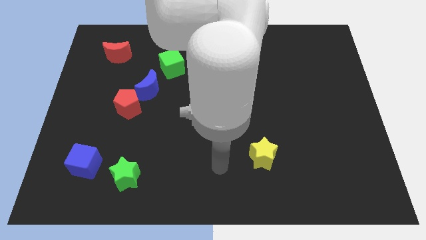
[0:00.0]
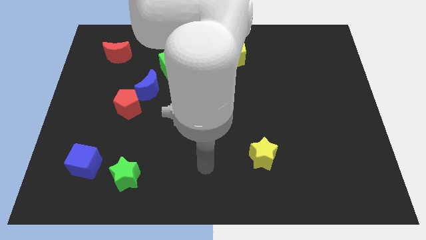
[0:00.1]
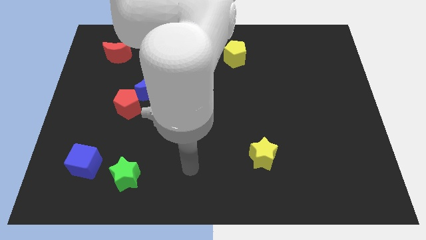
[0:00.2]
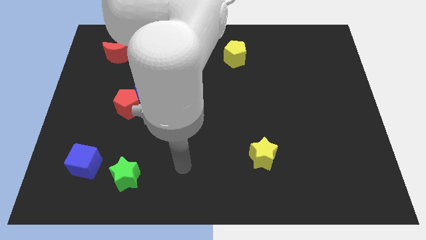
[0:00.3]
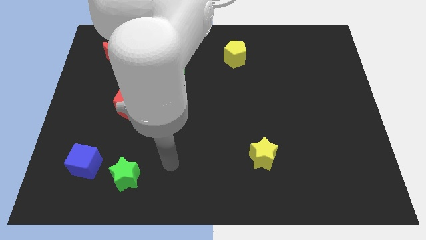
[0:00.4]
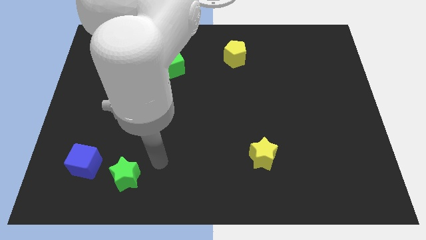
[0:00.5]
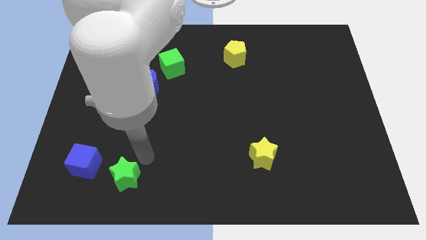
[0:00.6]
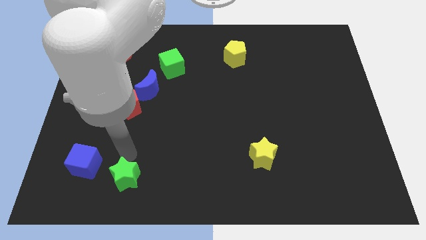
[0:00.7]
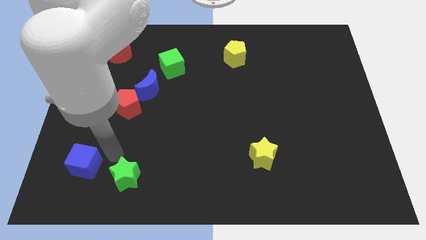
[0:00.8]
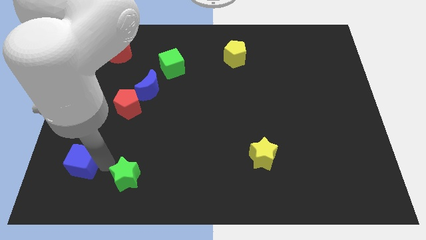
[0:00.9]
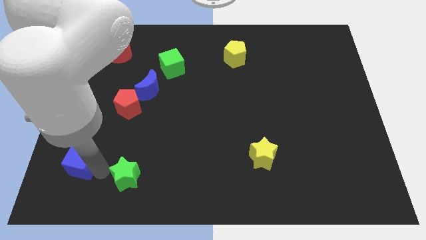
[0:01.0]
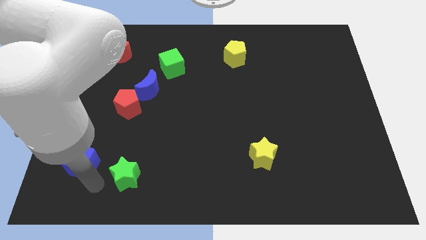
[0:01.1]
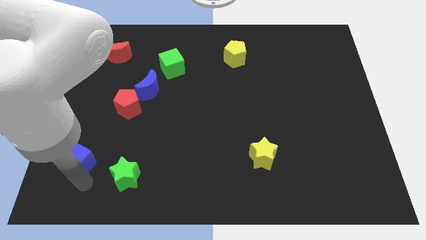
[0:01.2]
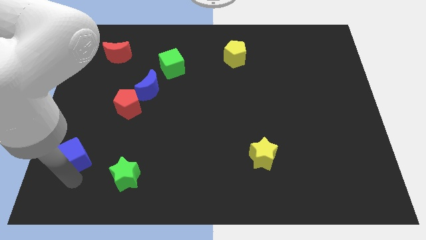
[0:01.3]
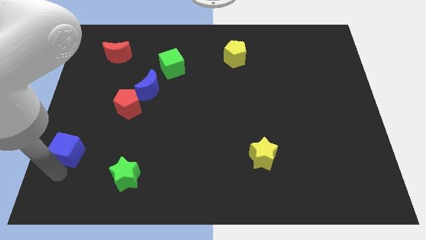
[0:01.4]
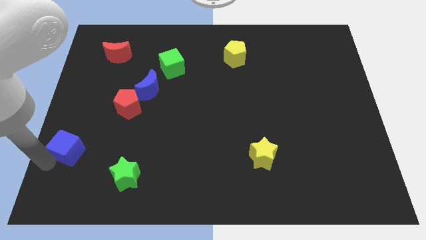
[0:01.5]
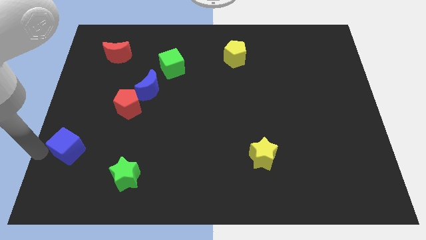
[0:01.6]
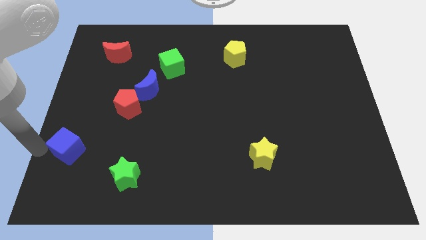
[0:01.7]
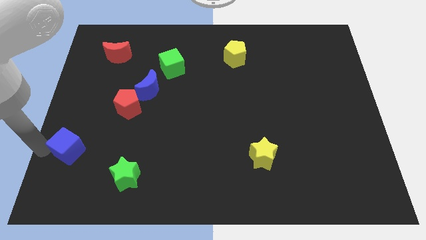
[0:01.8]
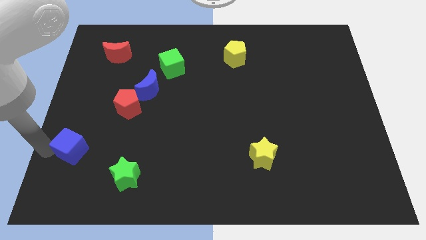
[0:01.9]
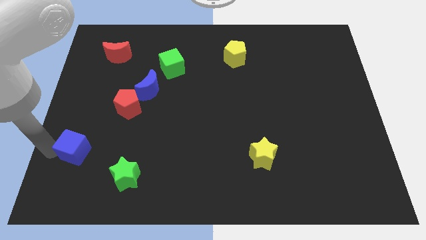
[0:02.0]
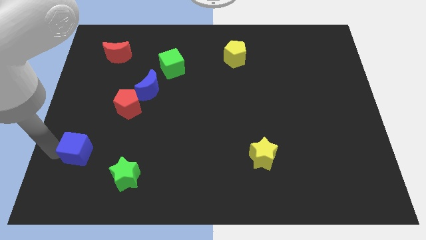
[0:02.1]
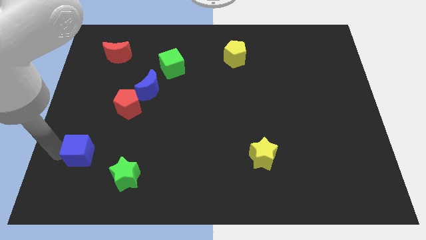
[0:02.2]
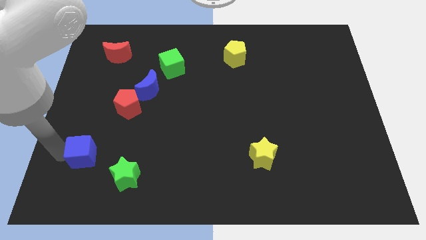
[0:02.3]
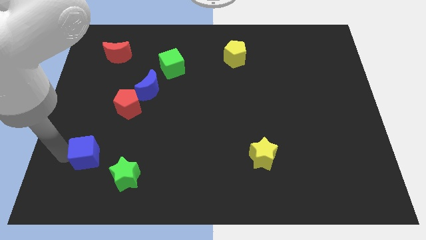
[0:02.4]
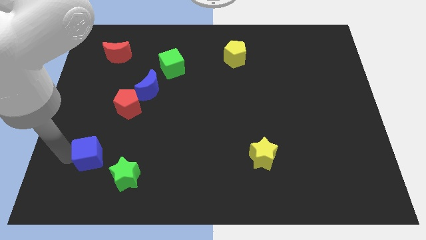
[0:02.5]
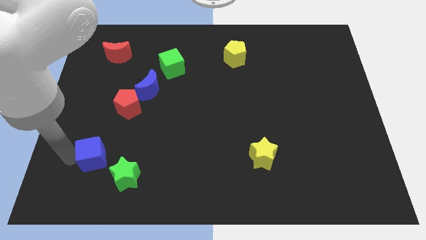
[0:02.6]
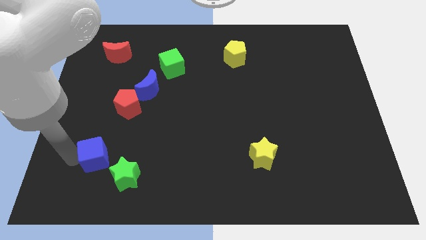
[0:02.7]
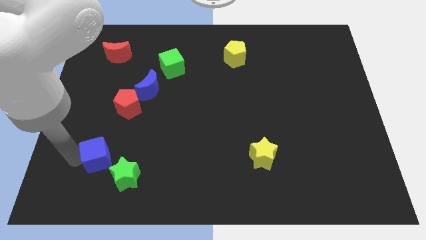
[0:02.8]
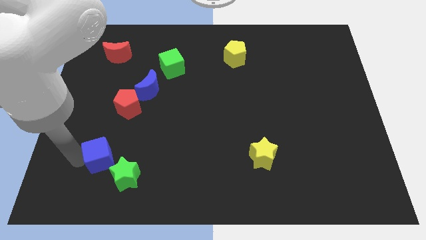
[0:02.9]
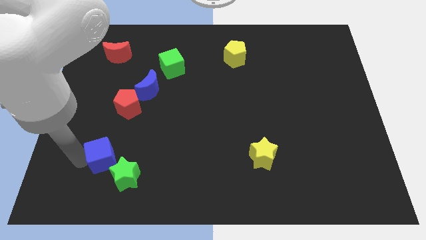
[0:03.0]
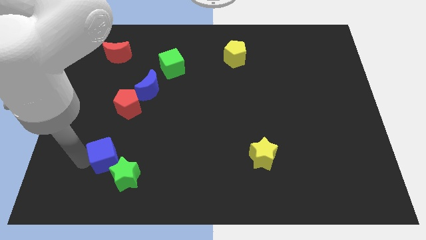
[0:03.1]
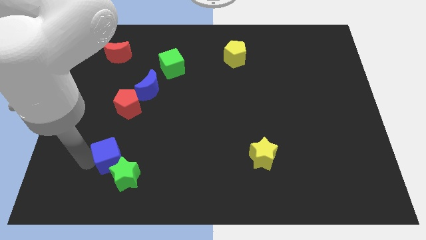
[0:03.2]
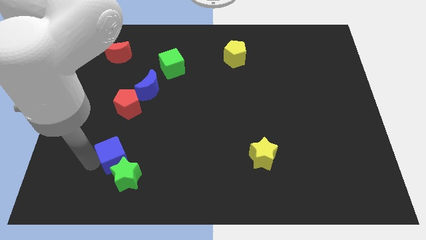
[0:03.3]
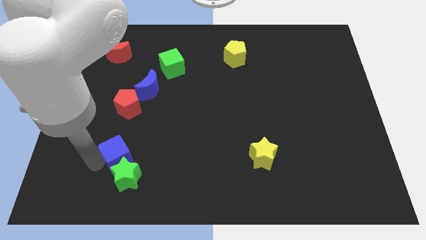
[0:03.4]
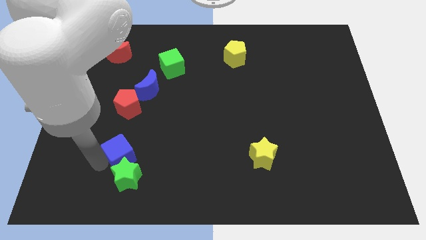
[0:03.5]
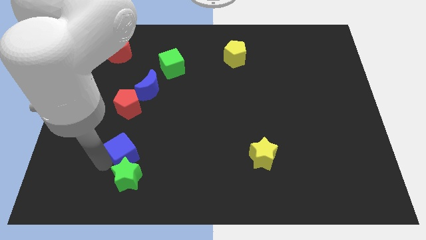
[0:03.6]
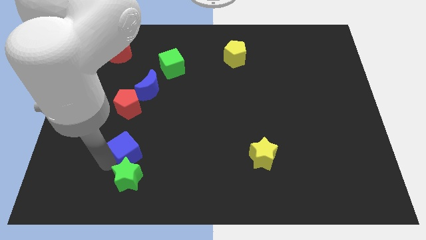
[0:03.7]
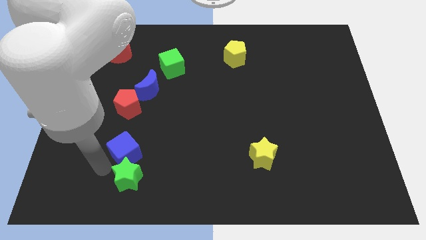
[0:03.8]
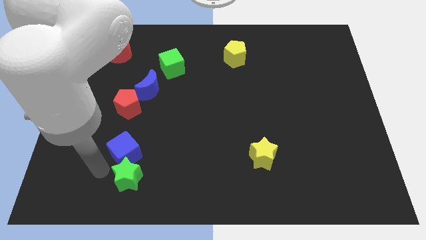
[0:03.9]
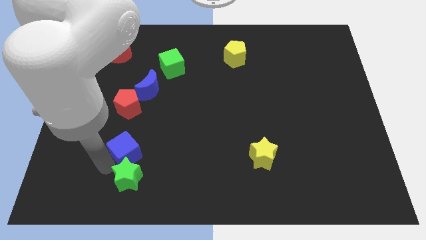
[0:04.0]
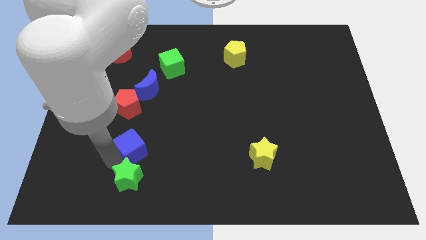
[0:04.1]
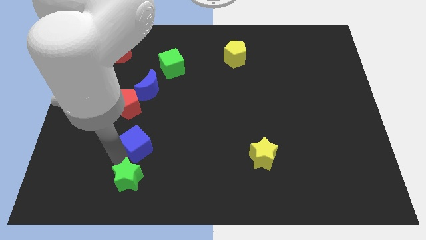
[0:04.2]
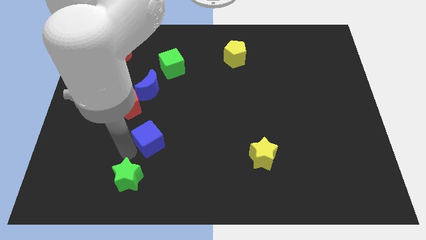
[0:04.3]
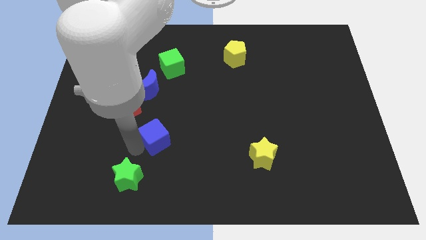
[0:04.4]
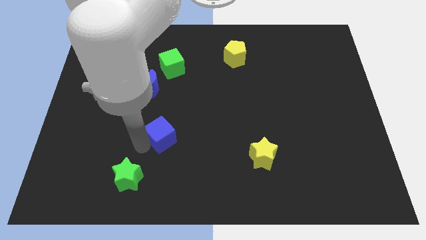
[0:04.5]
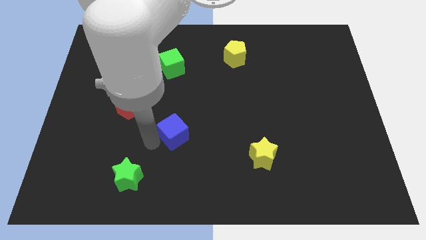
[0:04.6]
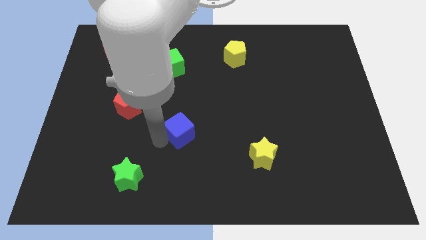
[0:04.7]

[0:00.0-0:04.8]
push the blue cube to the middle of the board

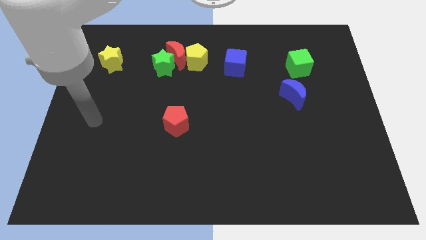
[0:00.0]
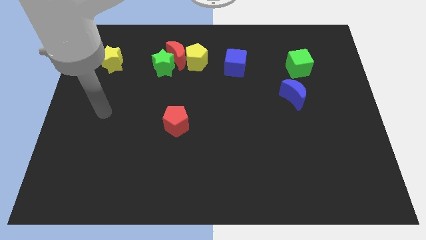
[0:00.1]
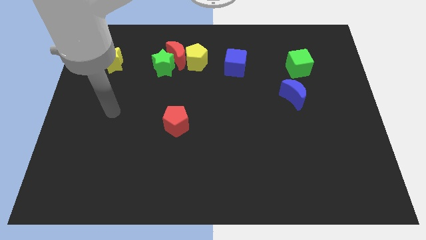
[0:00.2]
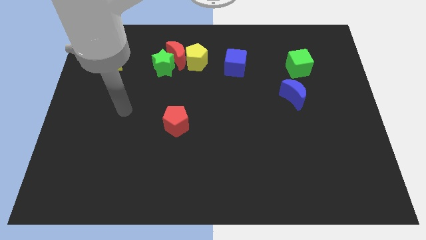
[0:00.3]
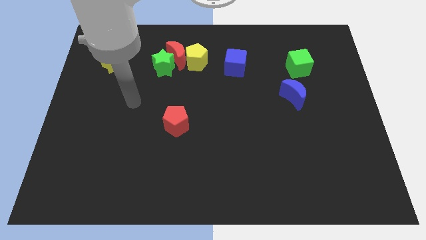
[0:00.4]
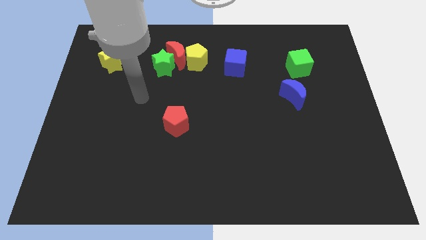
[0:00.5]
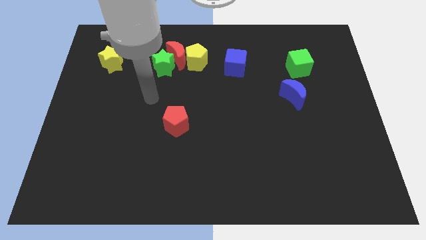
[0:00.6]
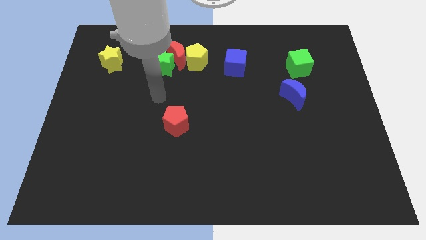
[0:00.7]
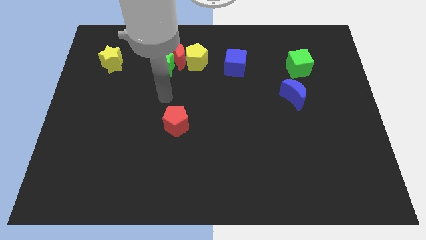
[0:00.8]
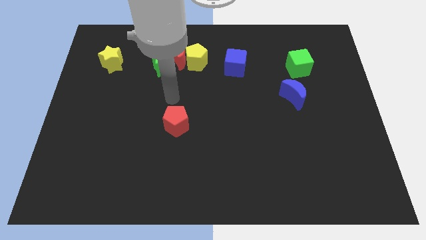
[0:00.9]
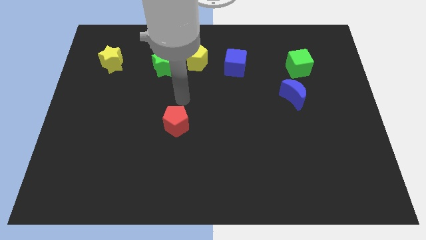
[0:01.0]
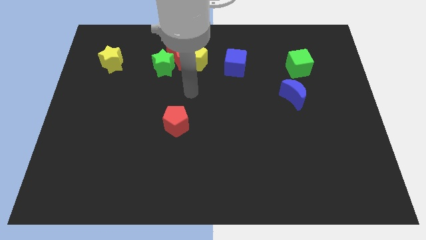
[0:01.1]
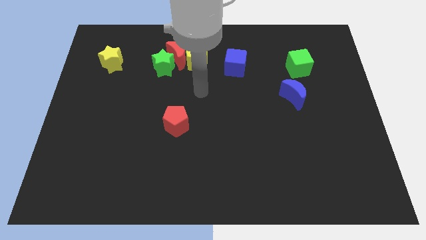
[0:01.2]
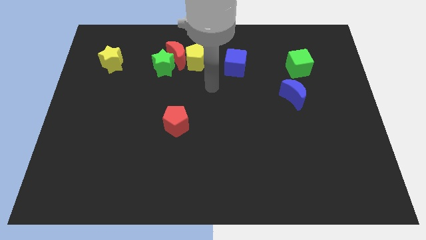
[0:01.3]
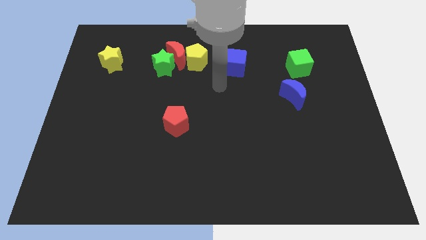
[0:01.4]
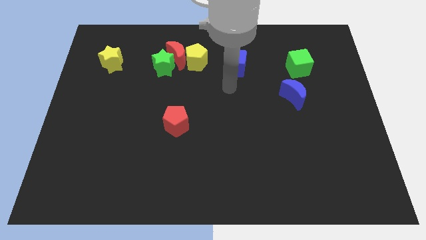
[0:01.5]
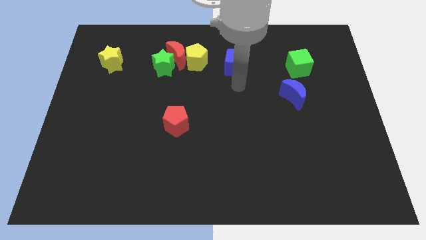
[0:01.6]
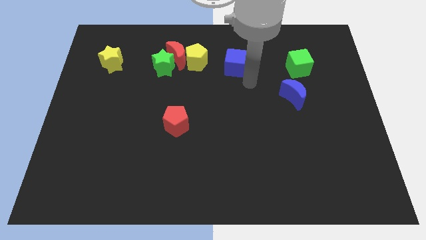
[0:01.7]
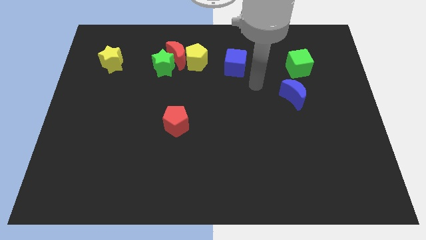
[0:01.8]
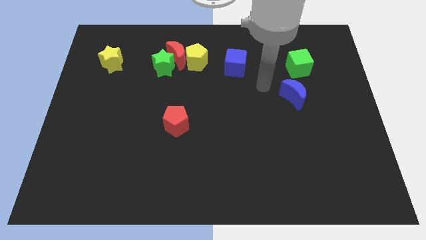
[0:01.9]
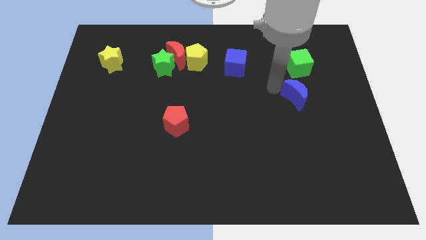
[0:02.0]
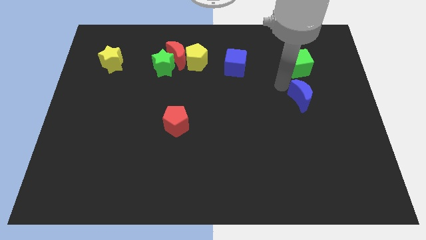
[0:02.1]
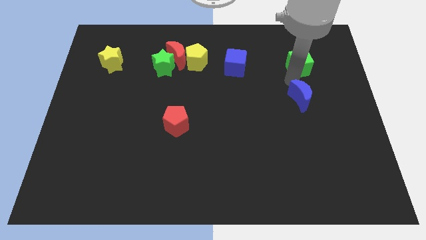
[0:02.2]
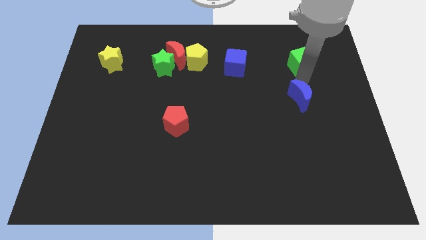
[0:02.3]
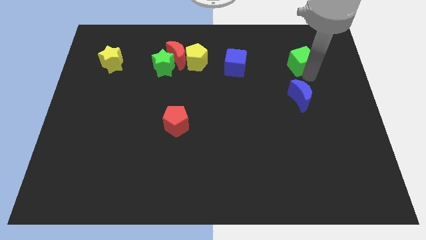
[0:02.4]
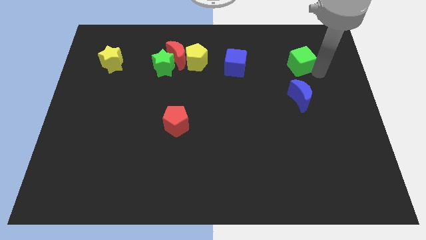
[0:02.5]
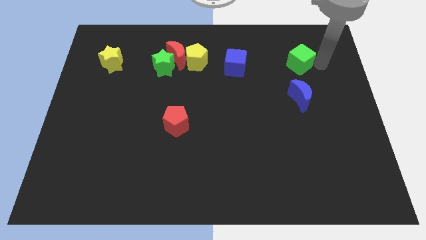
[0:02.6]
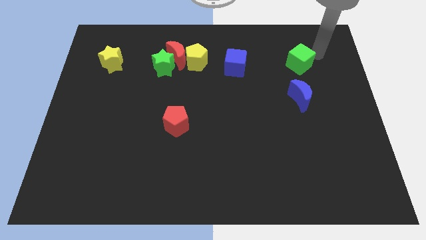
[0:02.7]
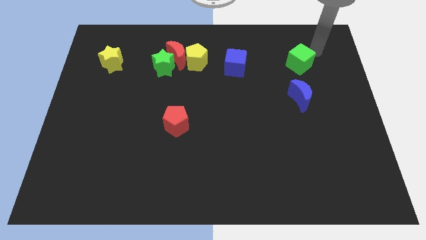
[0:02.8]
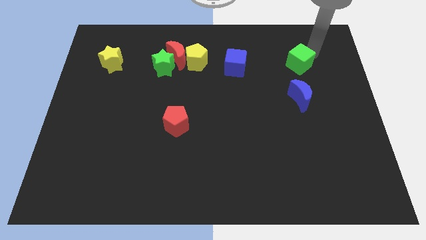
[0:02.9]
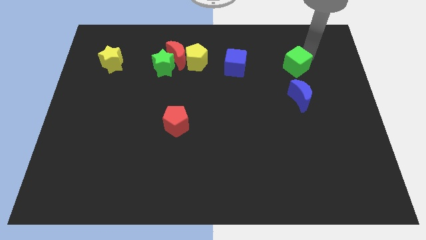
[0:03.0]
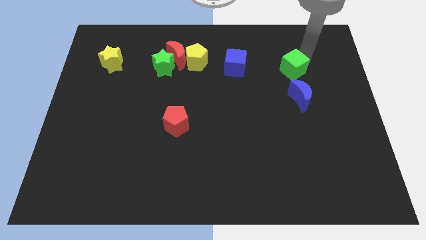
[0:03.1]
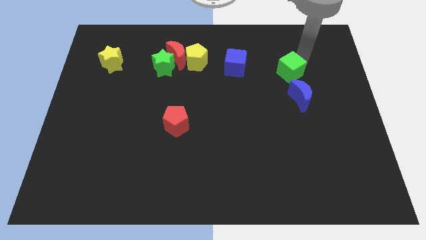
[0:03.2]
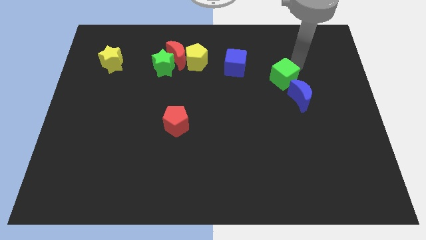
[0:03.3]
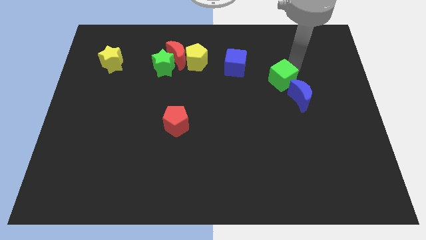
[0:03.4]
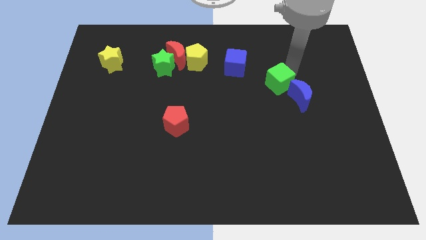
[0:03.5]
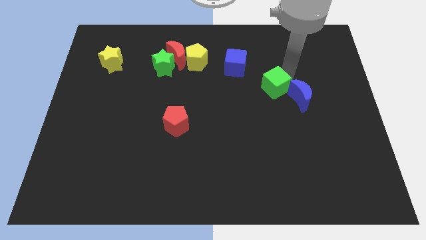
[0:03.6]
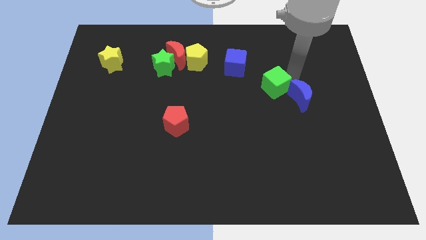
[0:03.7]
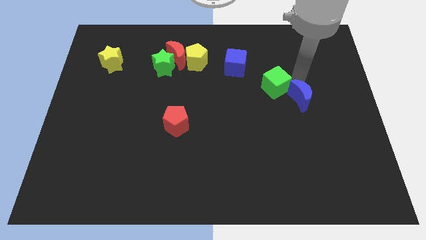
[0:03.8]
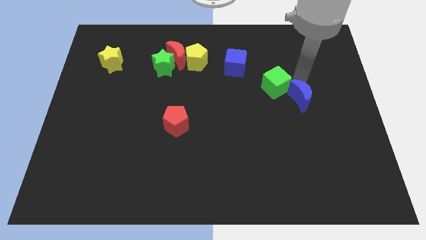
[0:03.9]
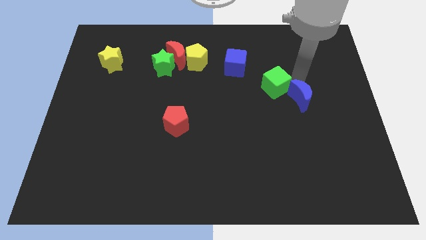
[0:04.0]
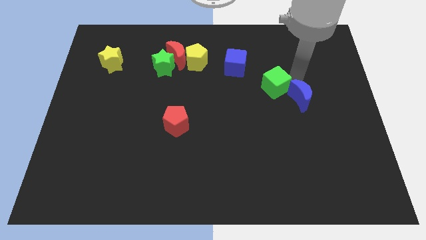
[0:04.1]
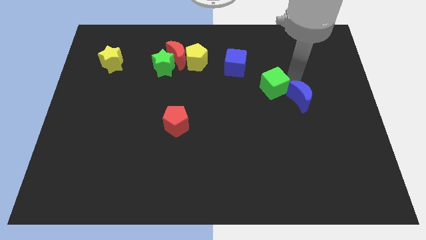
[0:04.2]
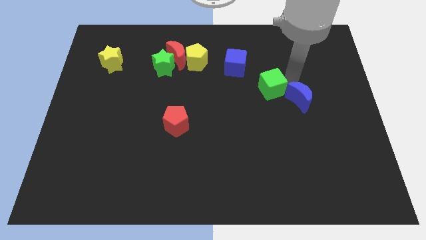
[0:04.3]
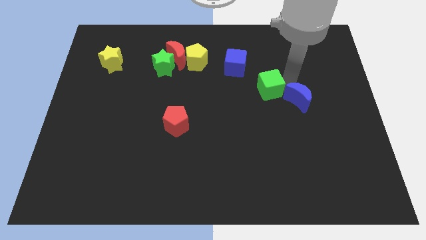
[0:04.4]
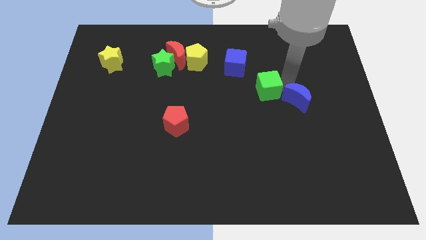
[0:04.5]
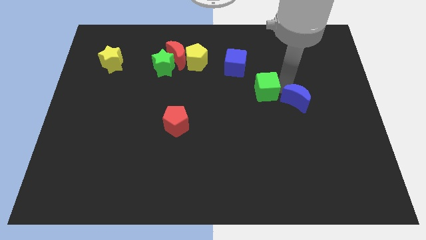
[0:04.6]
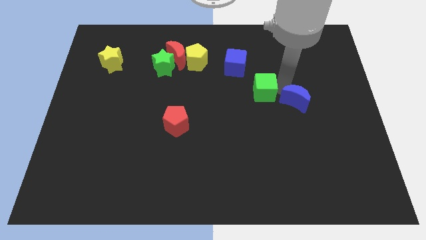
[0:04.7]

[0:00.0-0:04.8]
put the green cube to the middle of the board
